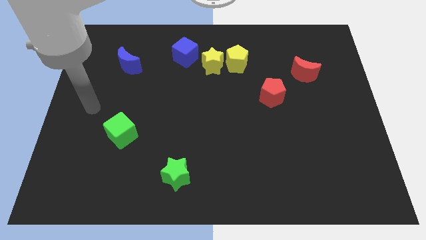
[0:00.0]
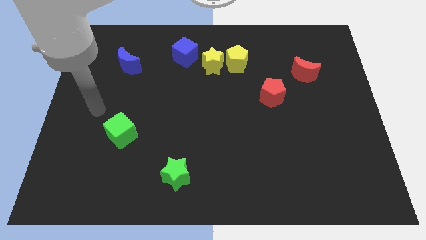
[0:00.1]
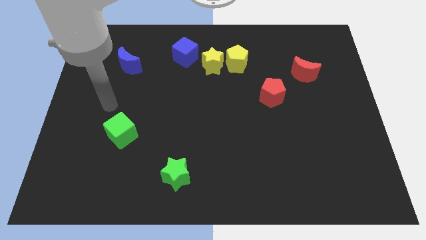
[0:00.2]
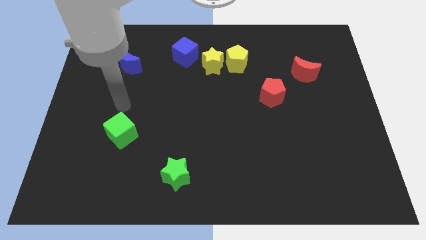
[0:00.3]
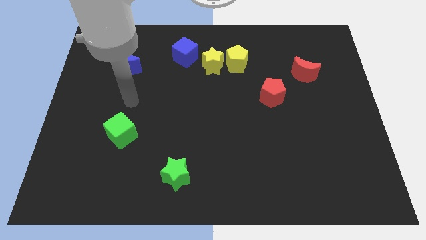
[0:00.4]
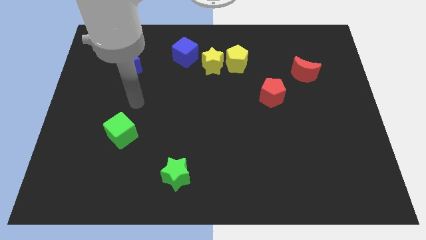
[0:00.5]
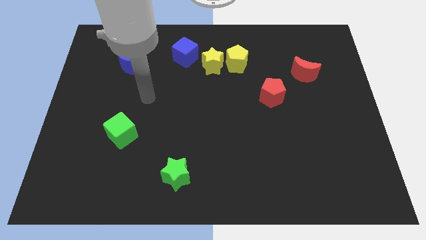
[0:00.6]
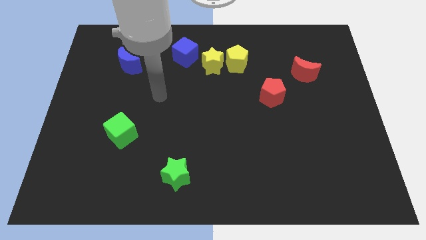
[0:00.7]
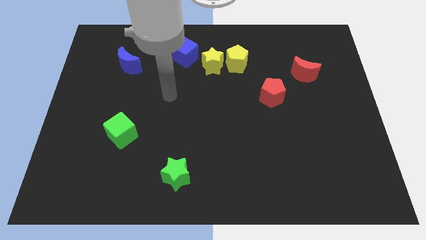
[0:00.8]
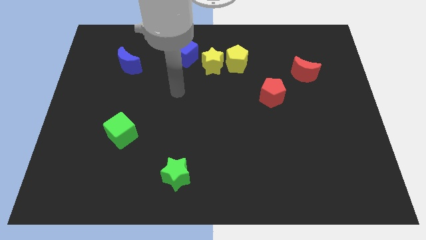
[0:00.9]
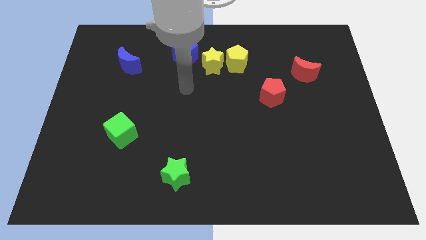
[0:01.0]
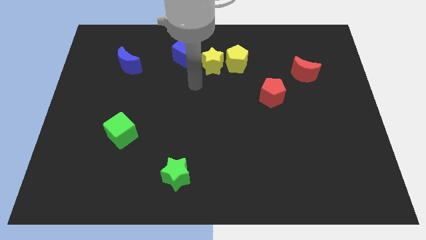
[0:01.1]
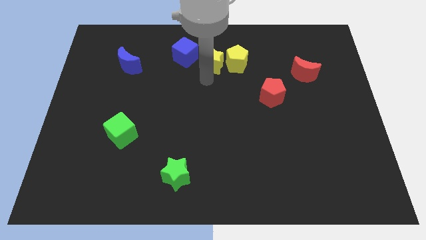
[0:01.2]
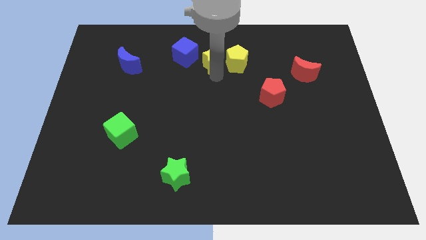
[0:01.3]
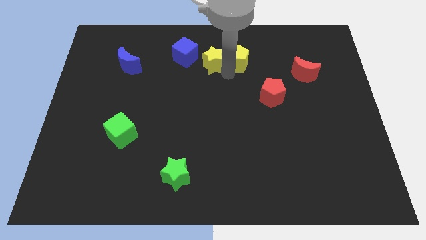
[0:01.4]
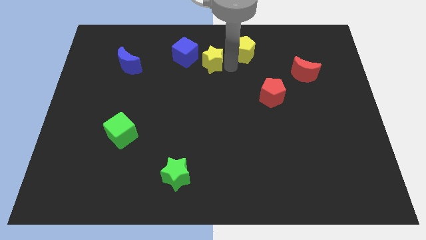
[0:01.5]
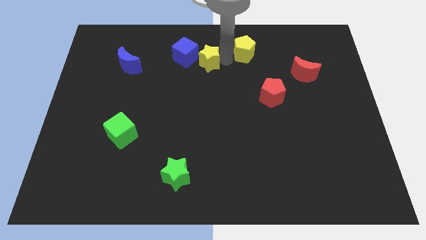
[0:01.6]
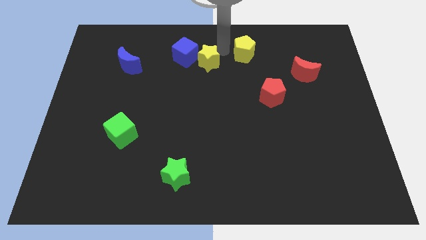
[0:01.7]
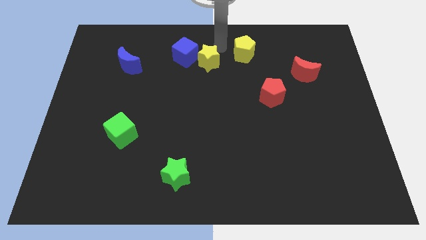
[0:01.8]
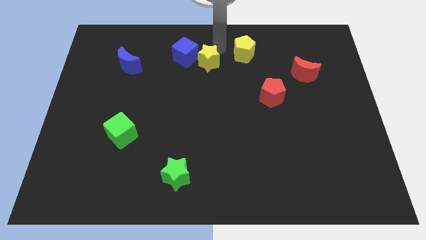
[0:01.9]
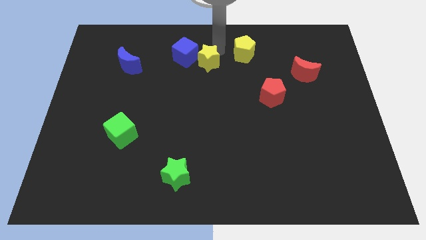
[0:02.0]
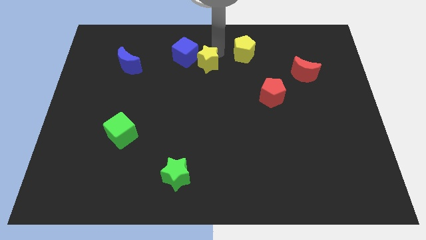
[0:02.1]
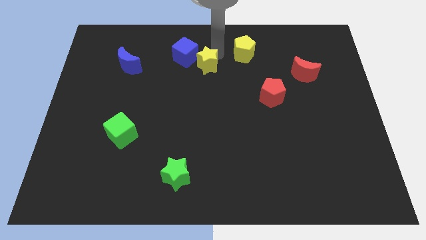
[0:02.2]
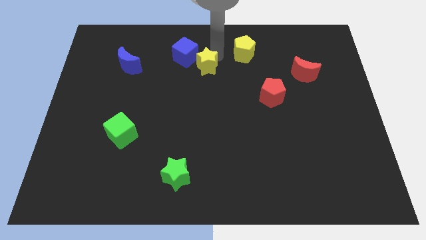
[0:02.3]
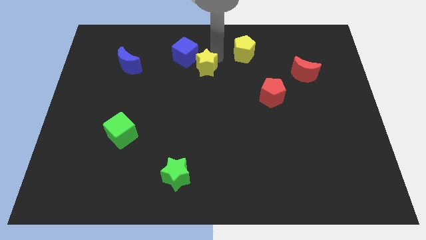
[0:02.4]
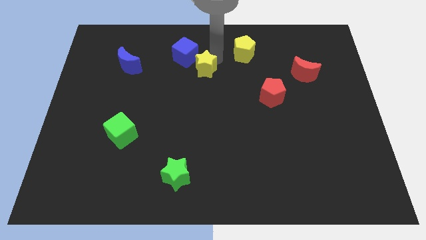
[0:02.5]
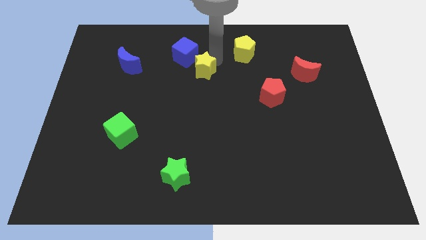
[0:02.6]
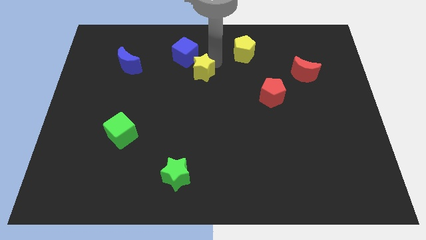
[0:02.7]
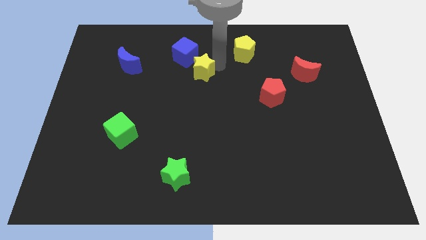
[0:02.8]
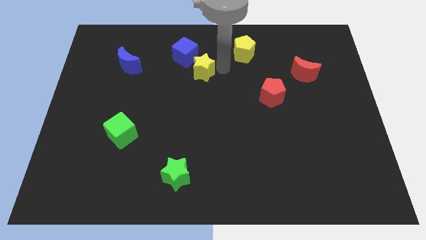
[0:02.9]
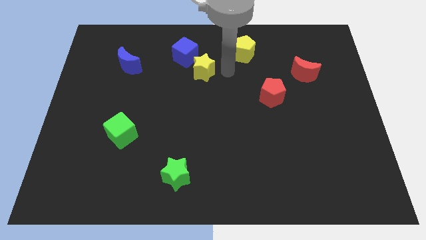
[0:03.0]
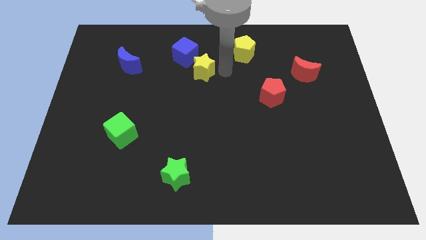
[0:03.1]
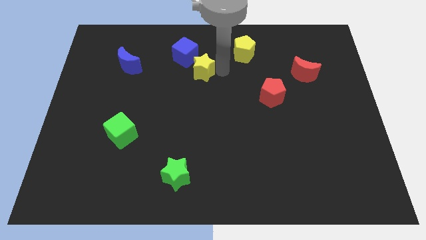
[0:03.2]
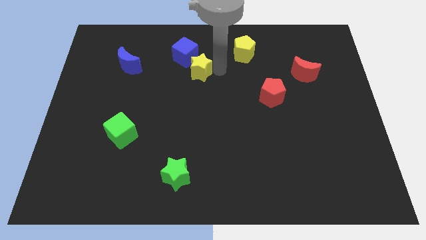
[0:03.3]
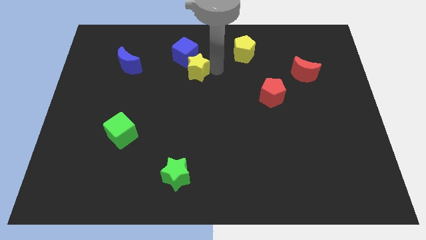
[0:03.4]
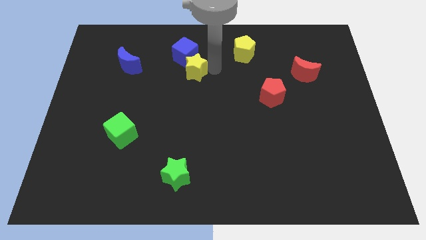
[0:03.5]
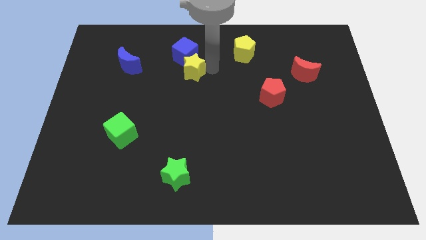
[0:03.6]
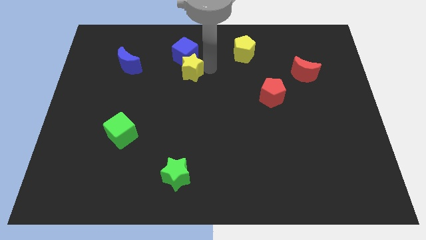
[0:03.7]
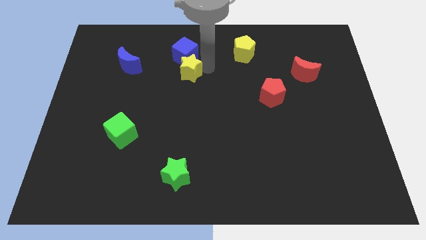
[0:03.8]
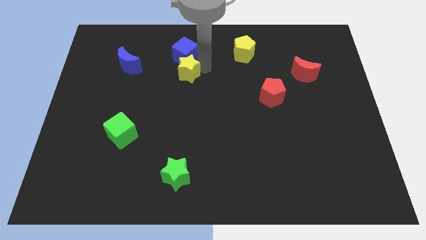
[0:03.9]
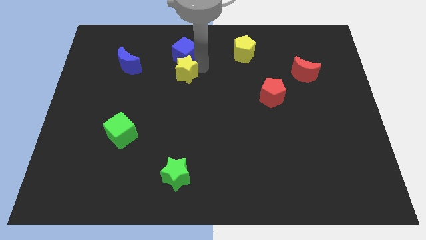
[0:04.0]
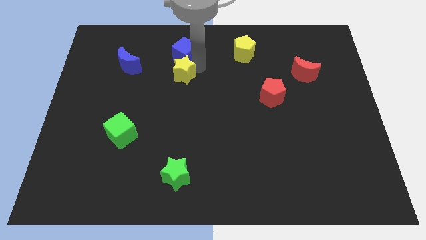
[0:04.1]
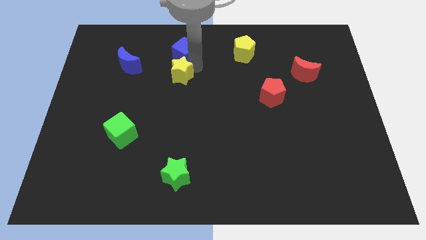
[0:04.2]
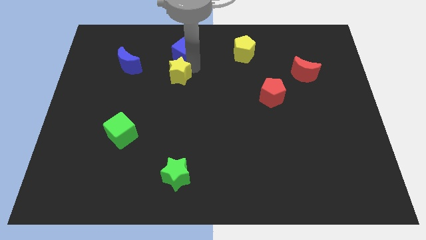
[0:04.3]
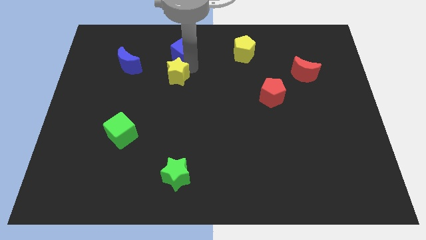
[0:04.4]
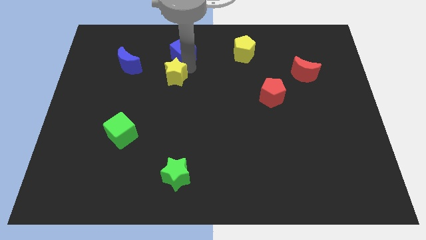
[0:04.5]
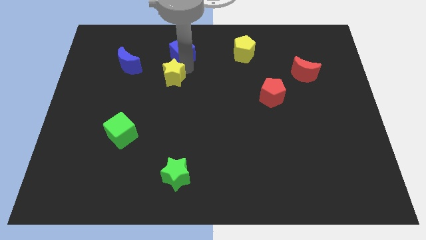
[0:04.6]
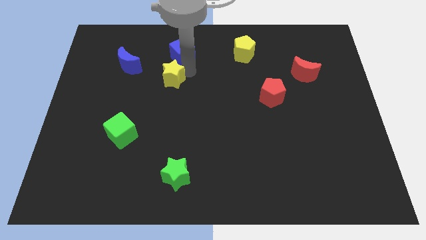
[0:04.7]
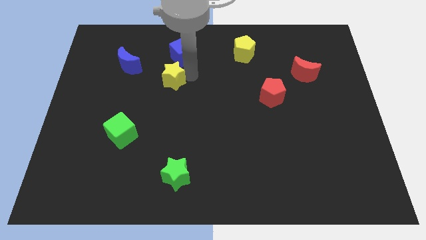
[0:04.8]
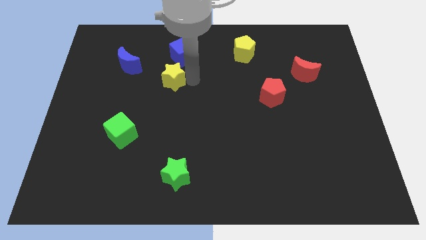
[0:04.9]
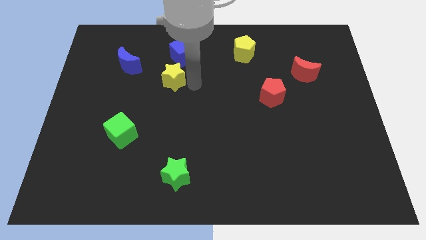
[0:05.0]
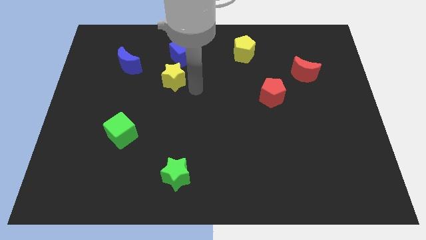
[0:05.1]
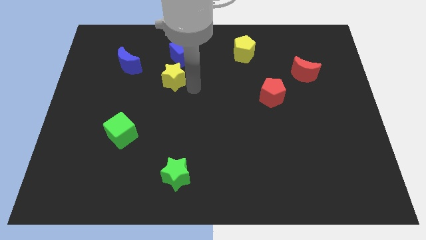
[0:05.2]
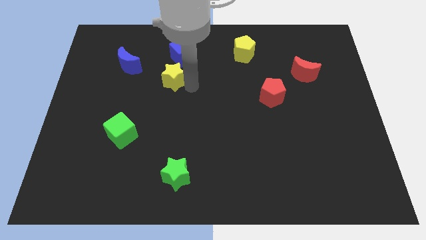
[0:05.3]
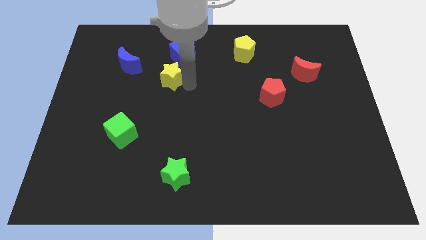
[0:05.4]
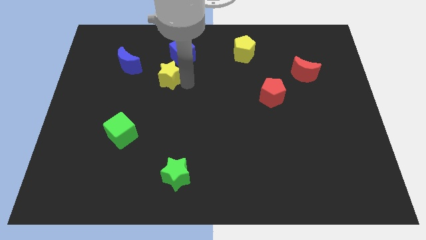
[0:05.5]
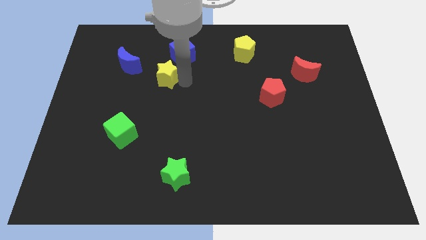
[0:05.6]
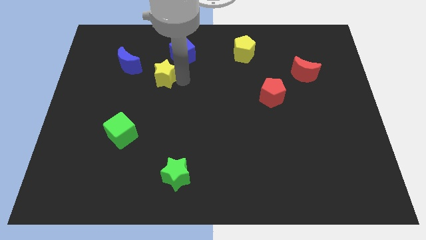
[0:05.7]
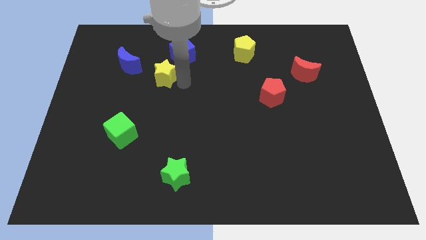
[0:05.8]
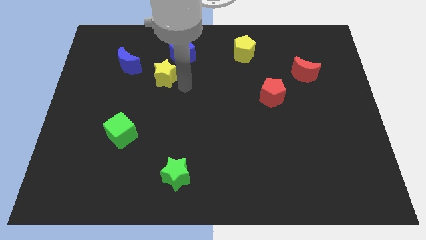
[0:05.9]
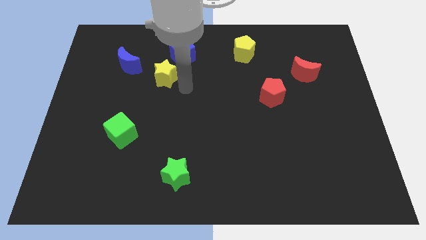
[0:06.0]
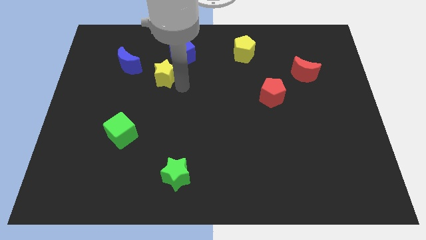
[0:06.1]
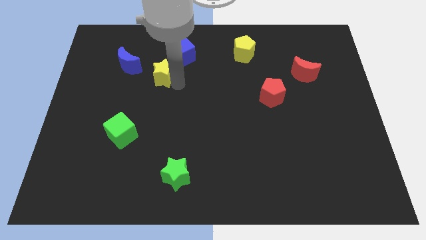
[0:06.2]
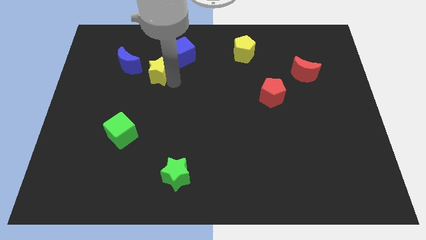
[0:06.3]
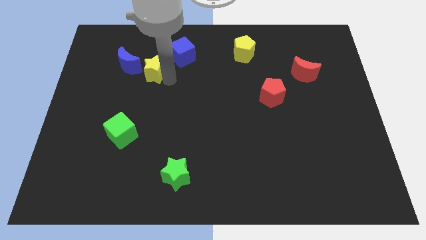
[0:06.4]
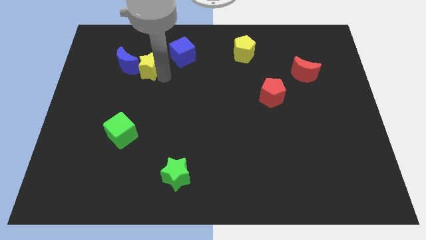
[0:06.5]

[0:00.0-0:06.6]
move the yellow star to the blue moon

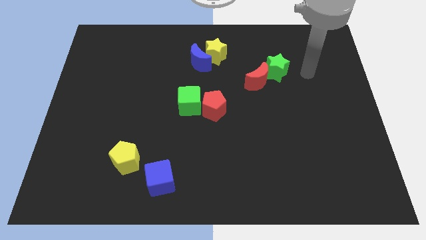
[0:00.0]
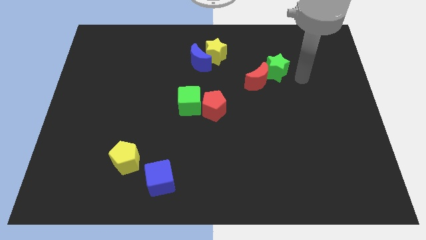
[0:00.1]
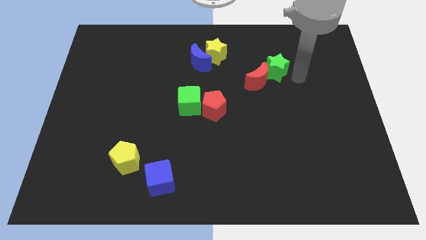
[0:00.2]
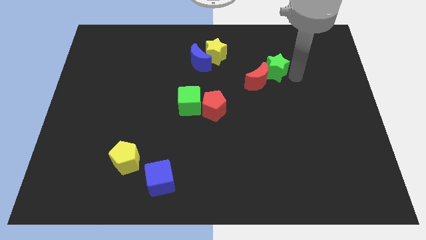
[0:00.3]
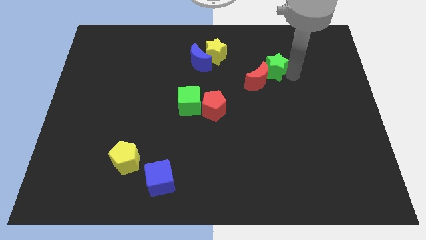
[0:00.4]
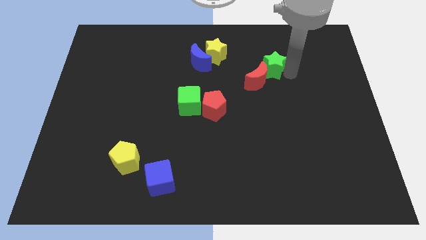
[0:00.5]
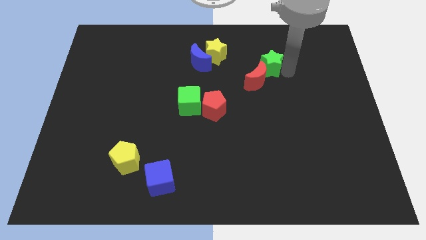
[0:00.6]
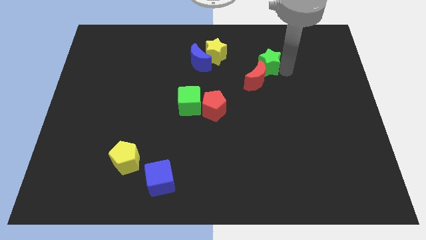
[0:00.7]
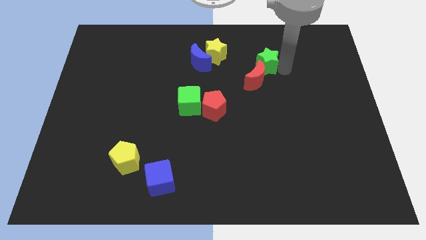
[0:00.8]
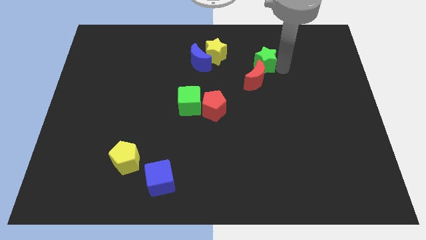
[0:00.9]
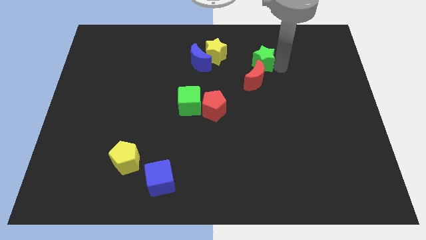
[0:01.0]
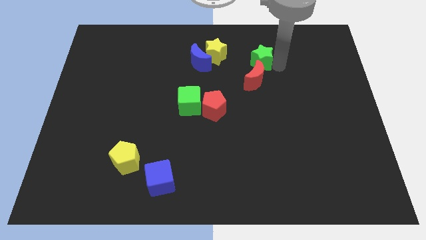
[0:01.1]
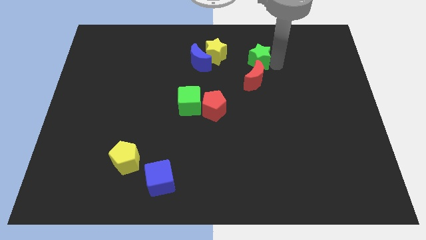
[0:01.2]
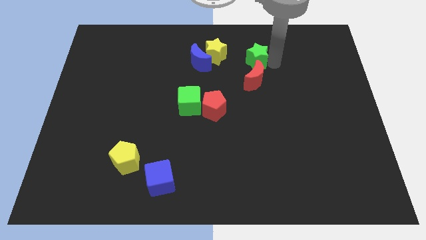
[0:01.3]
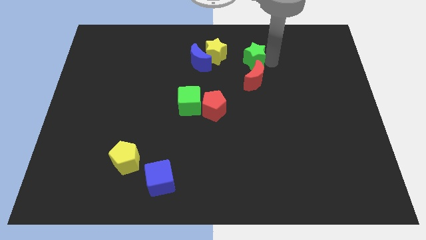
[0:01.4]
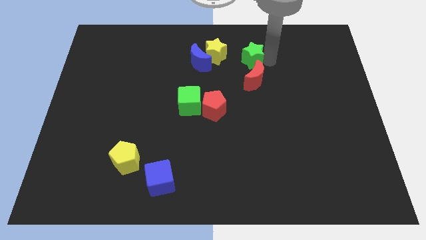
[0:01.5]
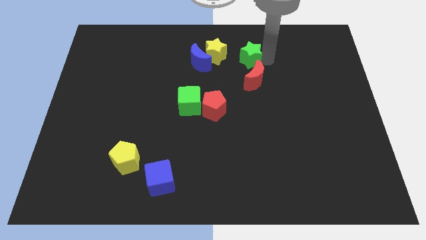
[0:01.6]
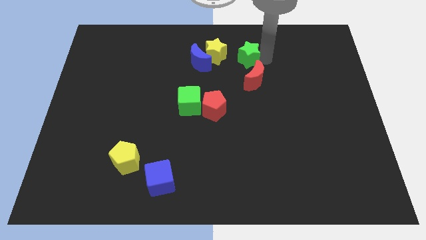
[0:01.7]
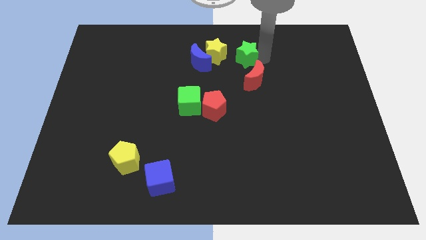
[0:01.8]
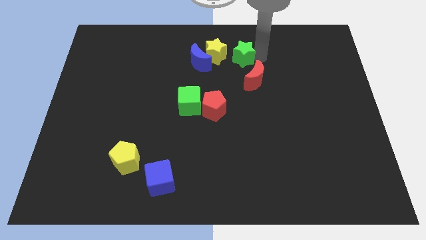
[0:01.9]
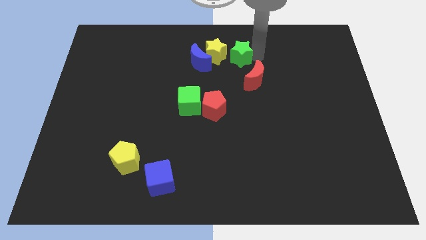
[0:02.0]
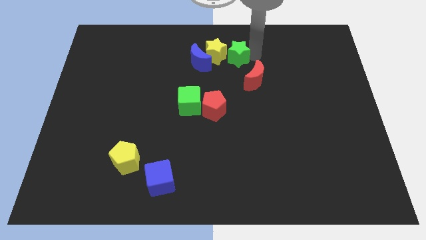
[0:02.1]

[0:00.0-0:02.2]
slide the green star towards the yellow star
